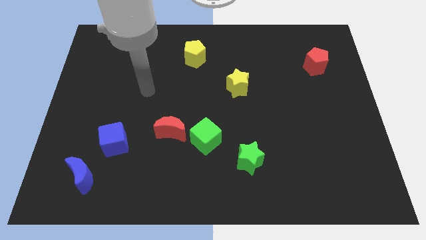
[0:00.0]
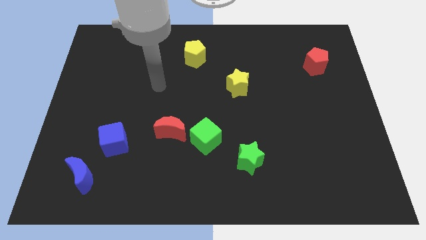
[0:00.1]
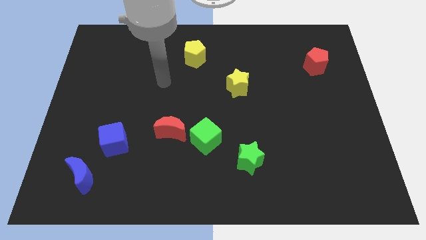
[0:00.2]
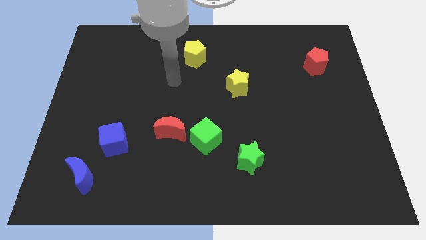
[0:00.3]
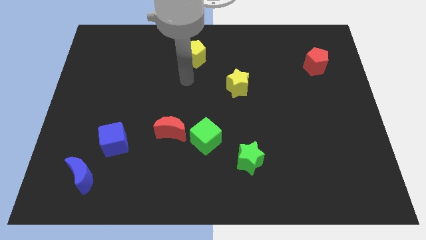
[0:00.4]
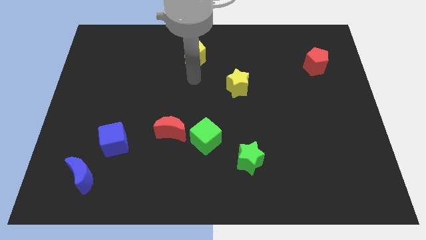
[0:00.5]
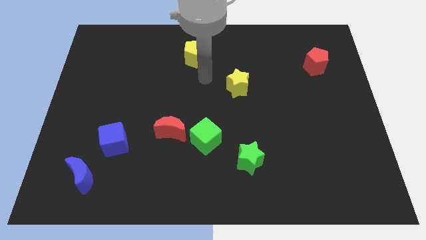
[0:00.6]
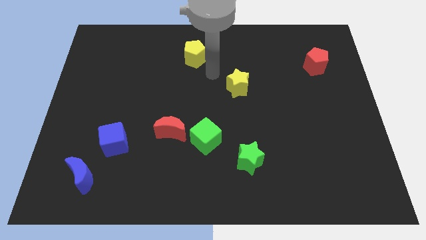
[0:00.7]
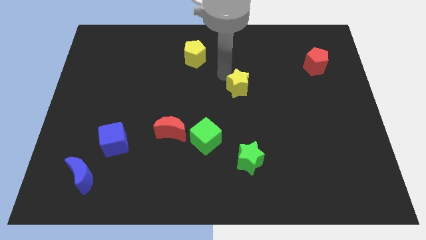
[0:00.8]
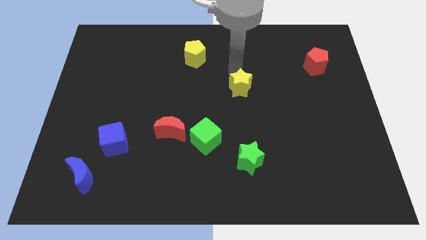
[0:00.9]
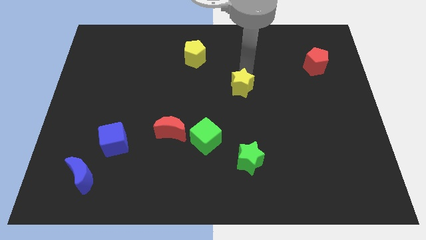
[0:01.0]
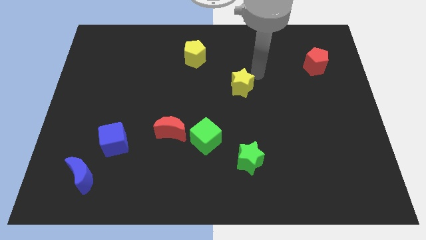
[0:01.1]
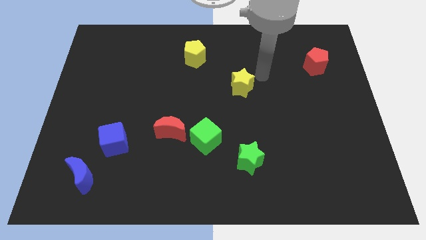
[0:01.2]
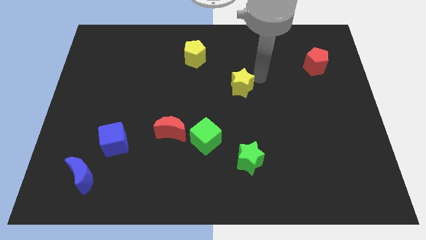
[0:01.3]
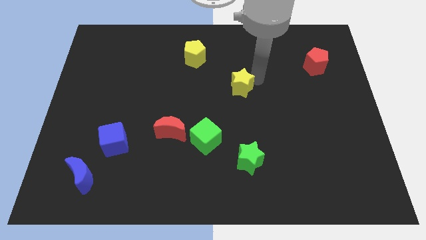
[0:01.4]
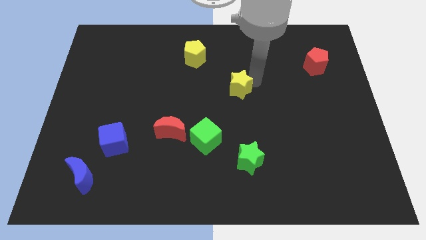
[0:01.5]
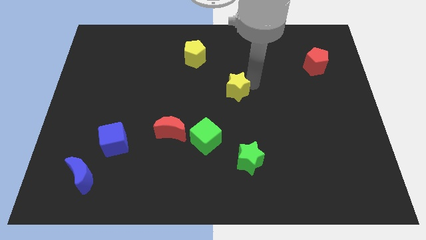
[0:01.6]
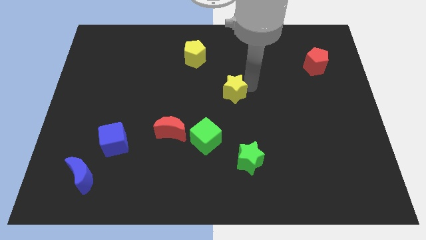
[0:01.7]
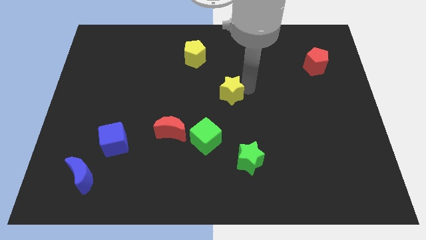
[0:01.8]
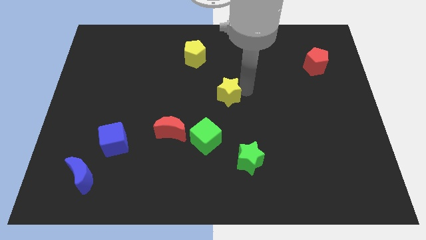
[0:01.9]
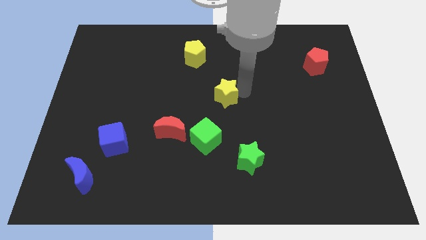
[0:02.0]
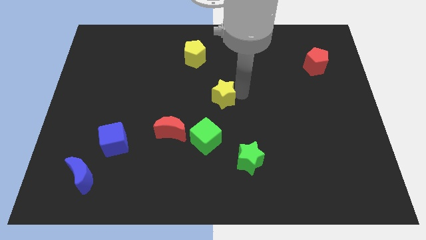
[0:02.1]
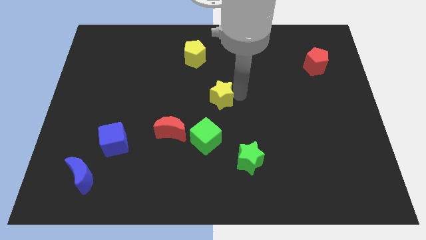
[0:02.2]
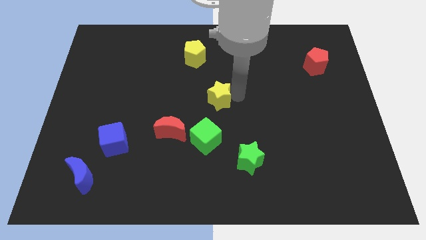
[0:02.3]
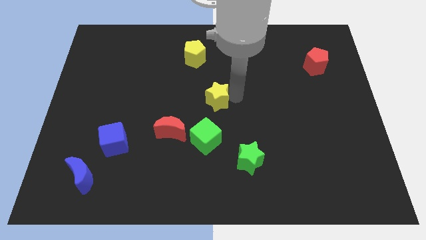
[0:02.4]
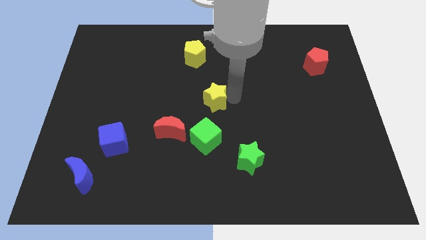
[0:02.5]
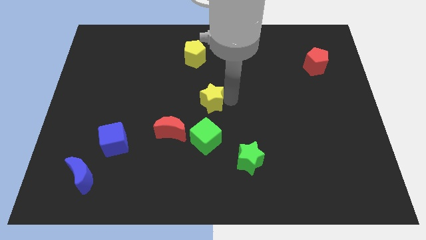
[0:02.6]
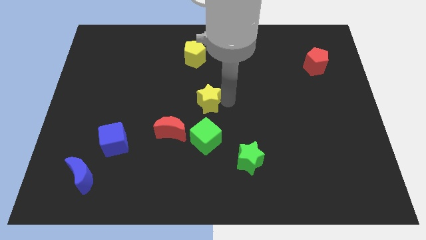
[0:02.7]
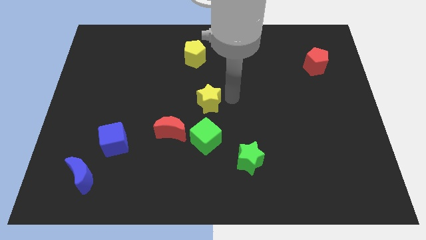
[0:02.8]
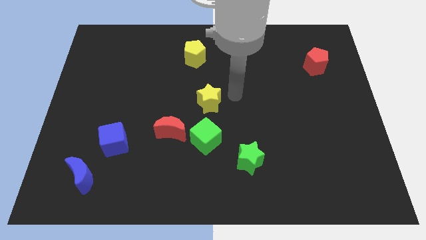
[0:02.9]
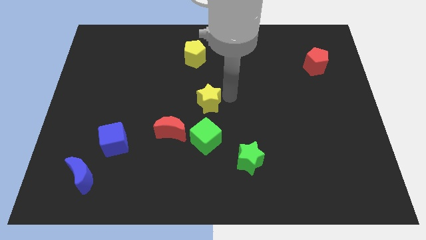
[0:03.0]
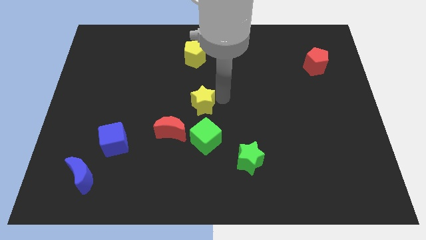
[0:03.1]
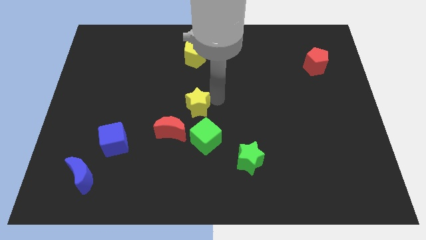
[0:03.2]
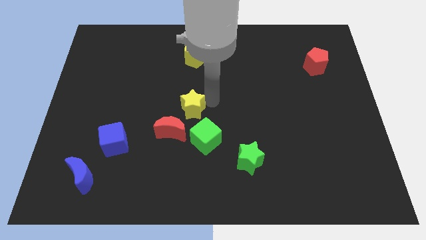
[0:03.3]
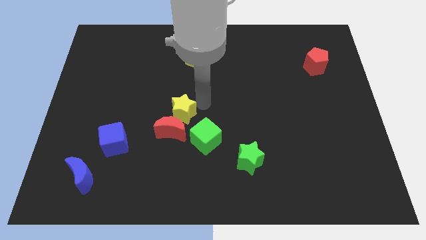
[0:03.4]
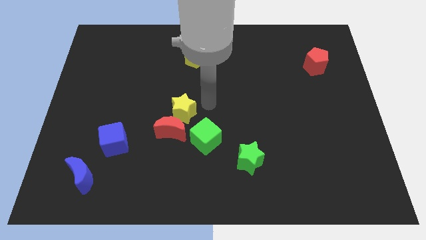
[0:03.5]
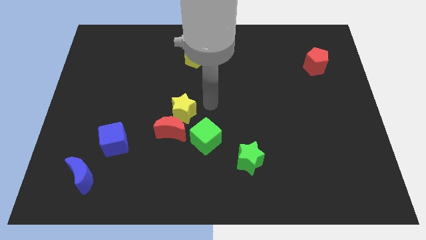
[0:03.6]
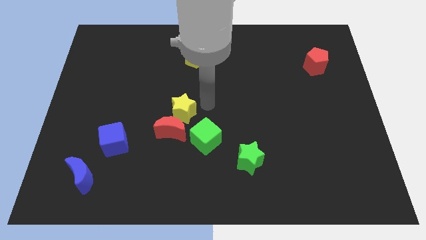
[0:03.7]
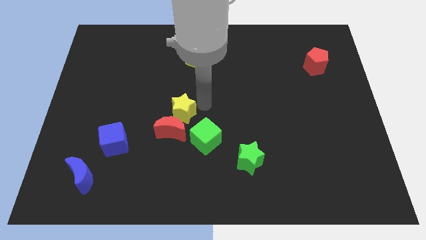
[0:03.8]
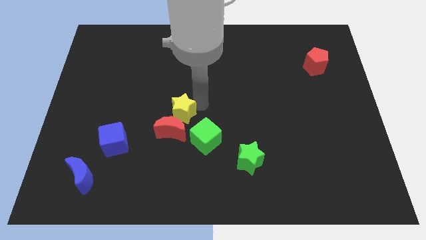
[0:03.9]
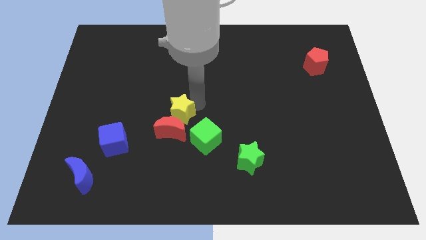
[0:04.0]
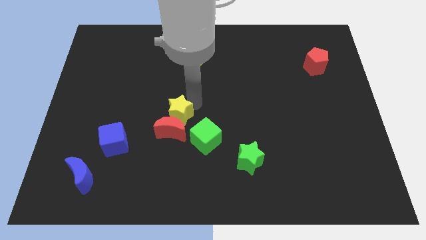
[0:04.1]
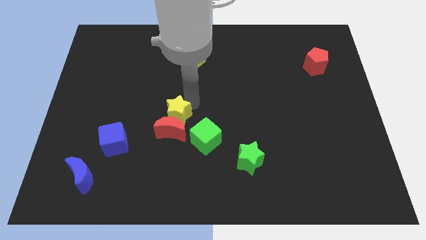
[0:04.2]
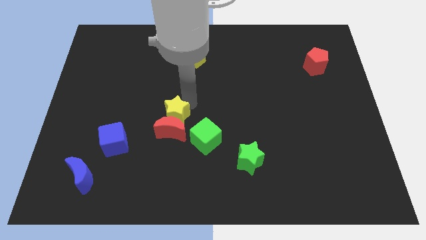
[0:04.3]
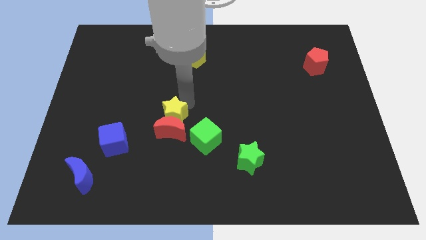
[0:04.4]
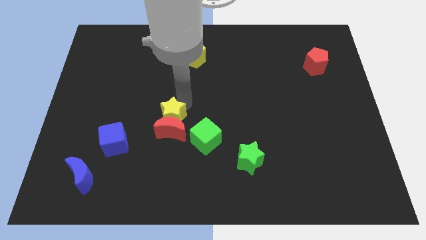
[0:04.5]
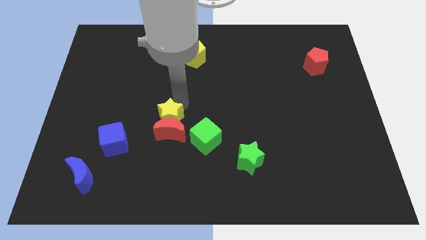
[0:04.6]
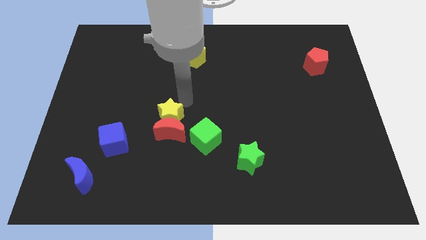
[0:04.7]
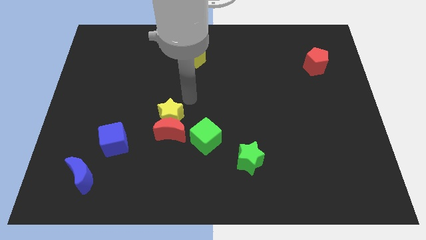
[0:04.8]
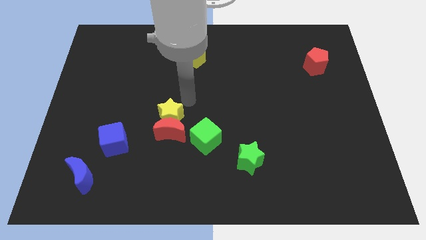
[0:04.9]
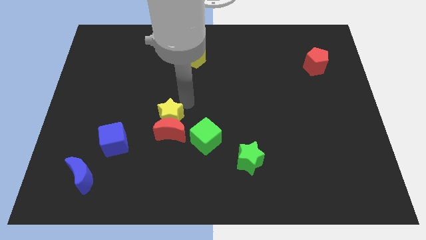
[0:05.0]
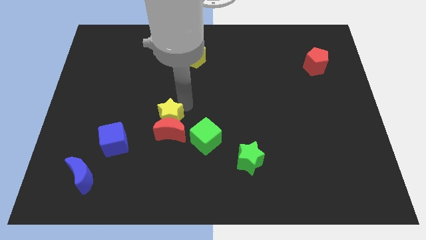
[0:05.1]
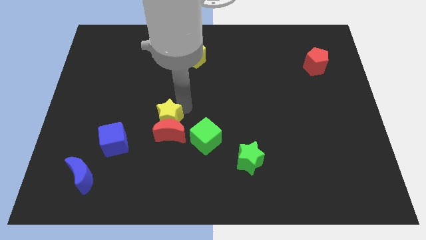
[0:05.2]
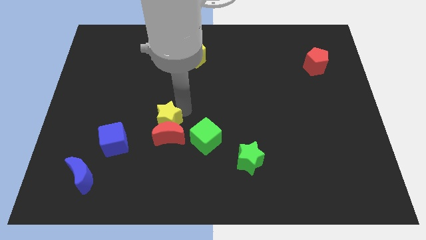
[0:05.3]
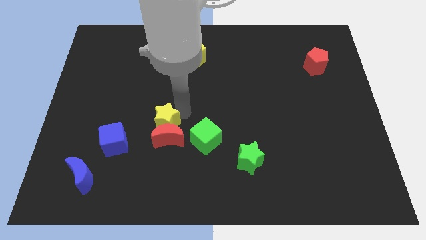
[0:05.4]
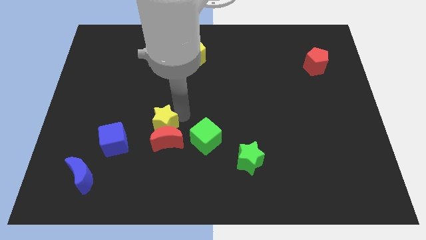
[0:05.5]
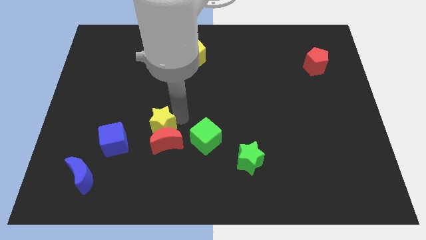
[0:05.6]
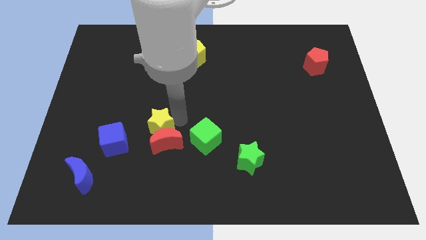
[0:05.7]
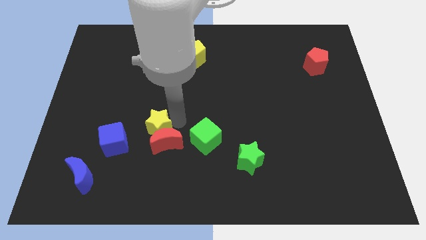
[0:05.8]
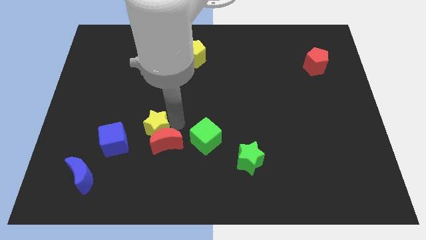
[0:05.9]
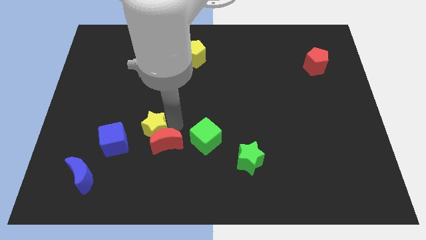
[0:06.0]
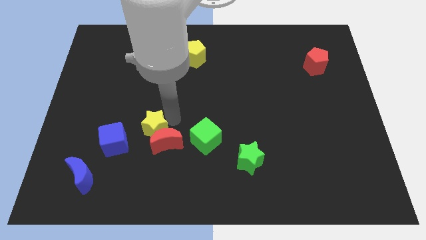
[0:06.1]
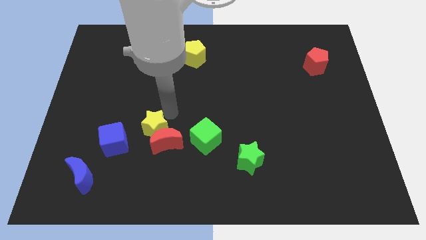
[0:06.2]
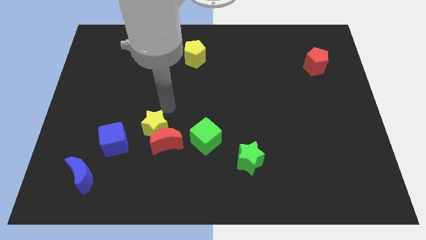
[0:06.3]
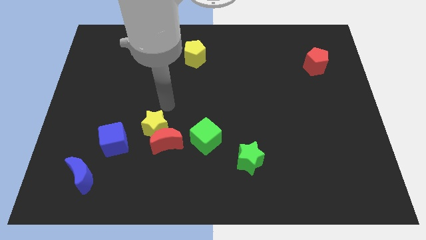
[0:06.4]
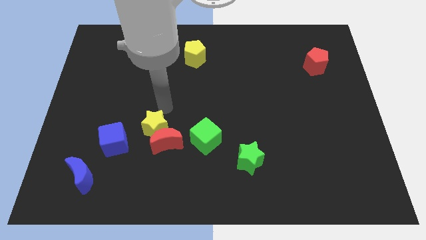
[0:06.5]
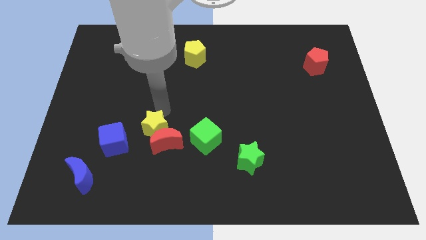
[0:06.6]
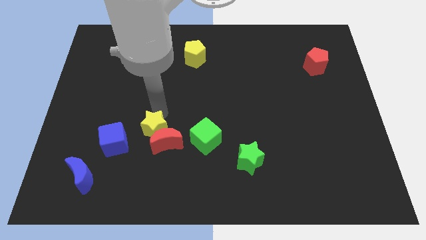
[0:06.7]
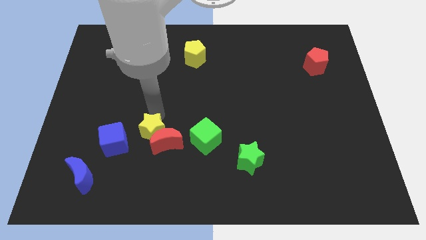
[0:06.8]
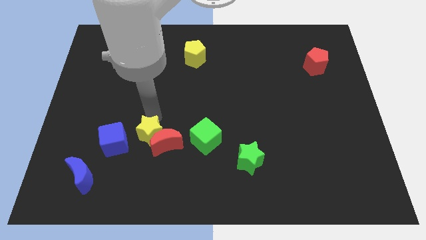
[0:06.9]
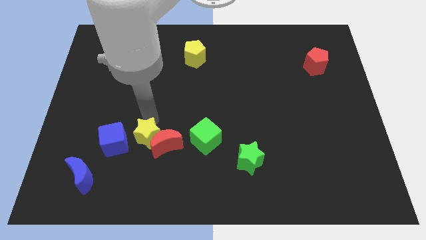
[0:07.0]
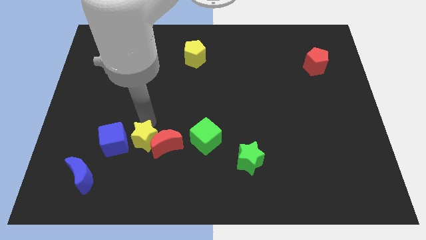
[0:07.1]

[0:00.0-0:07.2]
put the yellow star diagonally down and to the left of the red moon

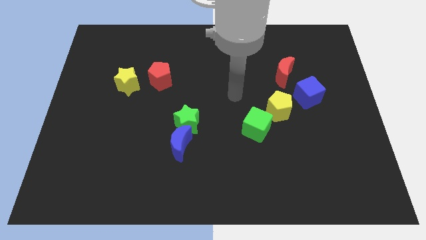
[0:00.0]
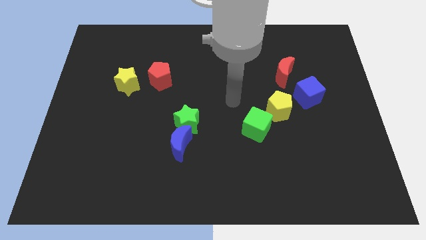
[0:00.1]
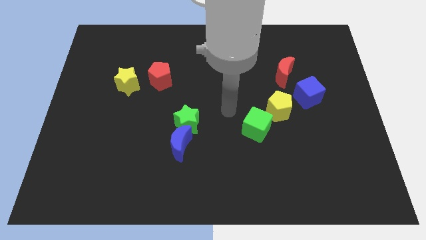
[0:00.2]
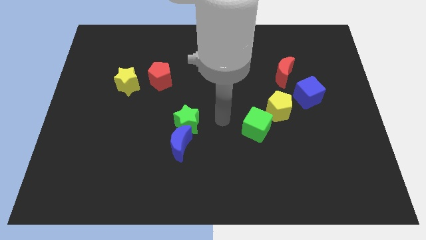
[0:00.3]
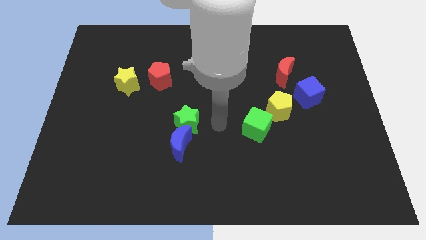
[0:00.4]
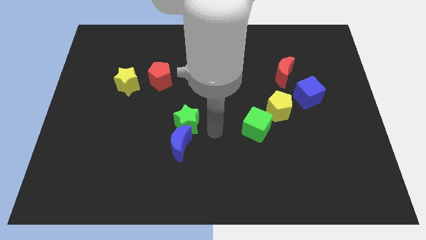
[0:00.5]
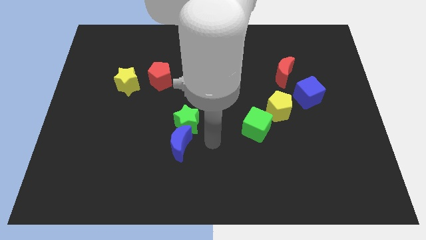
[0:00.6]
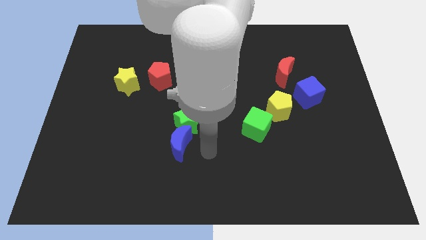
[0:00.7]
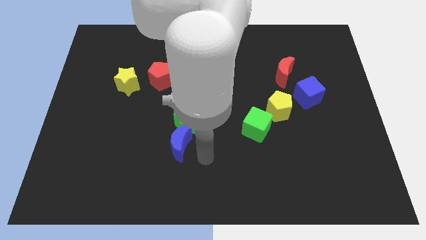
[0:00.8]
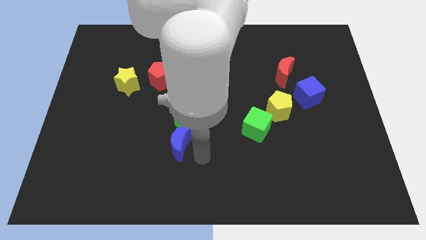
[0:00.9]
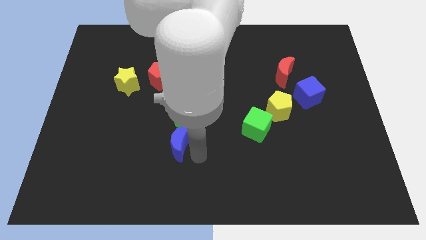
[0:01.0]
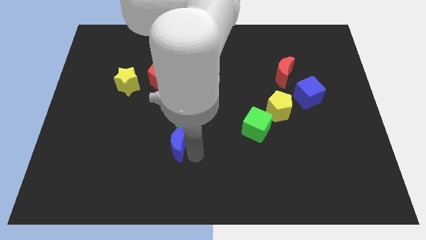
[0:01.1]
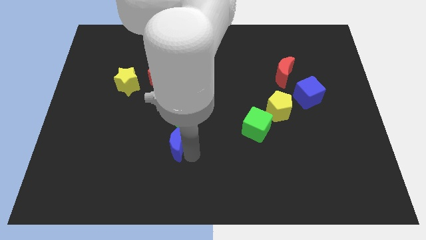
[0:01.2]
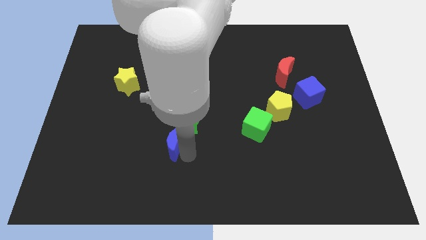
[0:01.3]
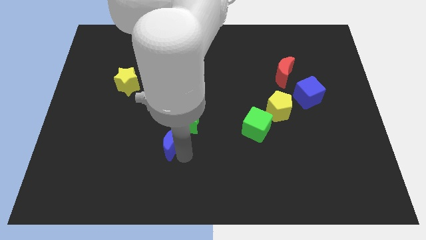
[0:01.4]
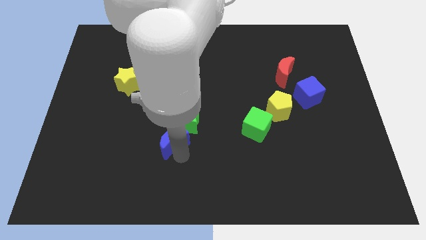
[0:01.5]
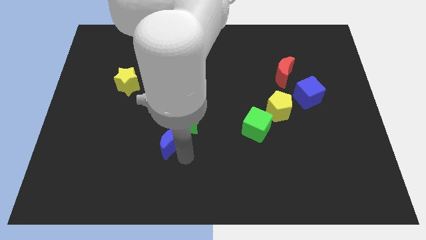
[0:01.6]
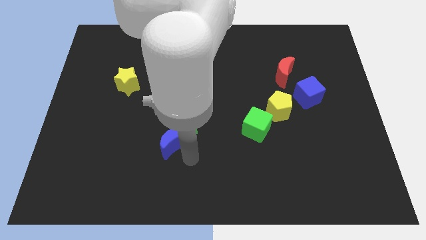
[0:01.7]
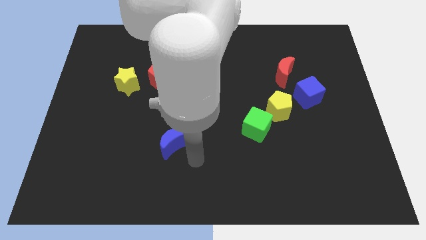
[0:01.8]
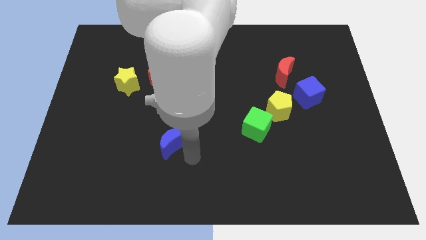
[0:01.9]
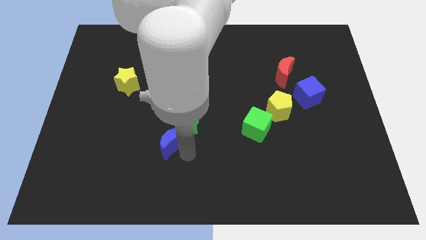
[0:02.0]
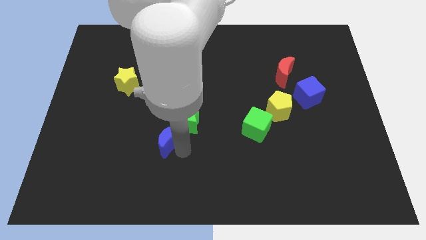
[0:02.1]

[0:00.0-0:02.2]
slide the blue moon to the left side of the green star
